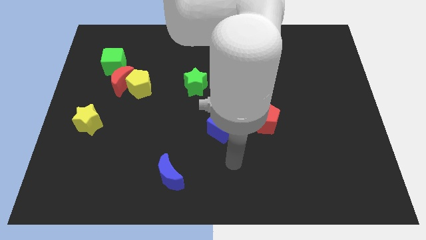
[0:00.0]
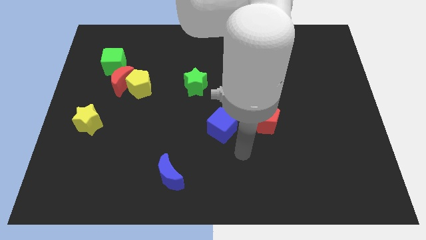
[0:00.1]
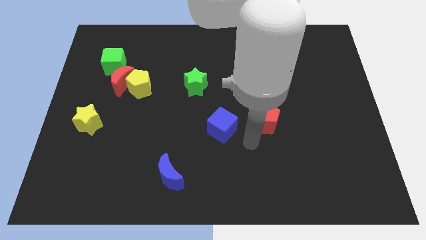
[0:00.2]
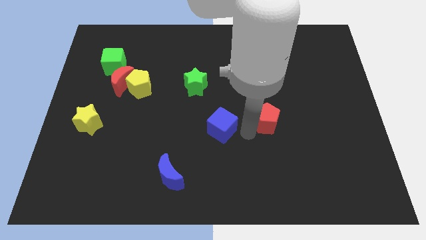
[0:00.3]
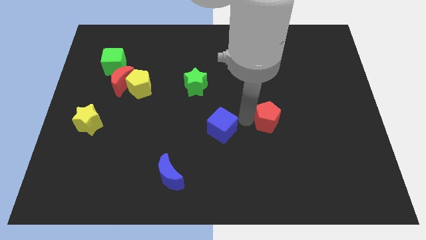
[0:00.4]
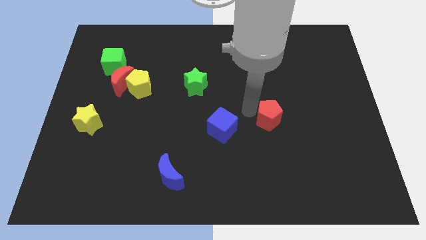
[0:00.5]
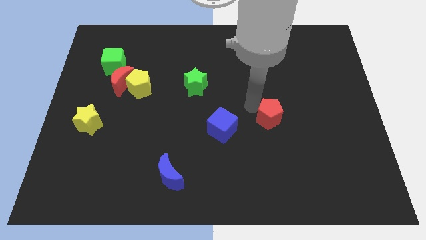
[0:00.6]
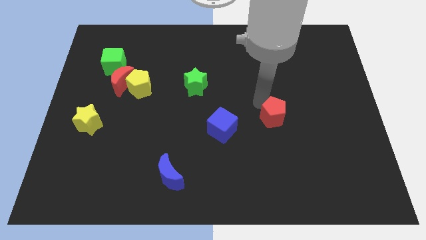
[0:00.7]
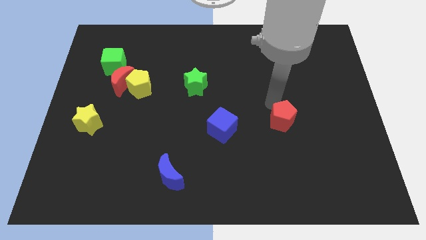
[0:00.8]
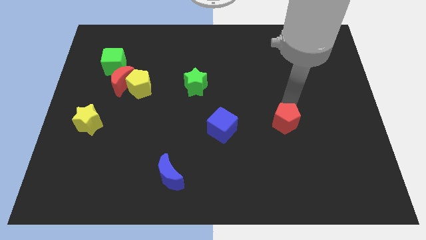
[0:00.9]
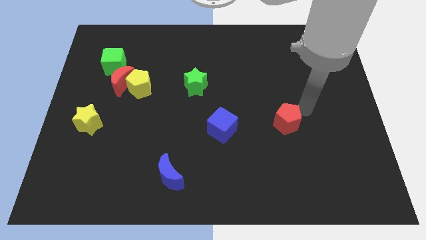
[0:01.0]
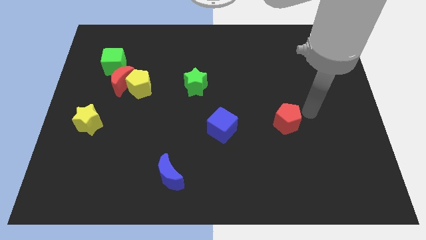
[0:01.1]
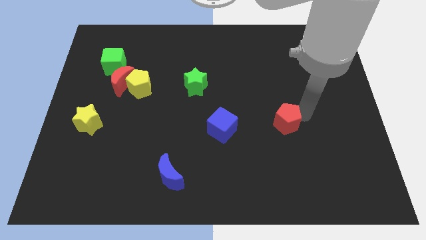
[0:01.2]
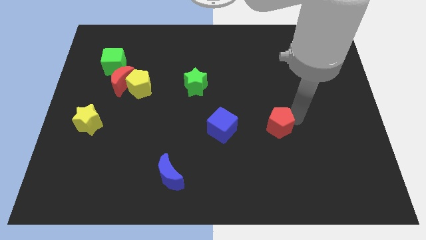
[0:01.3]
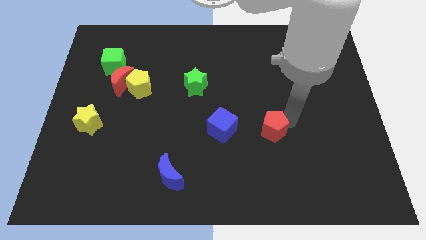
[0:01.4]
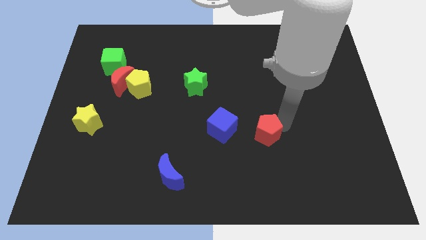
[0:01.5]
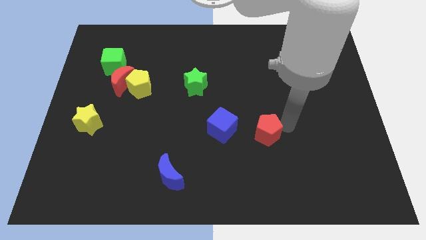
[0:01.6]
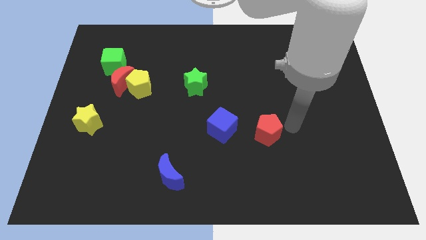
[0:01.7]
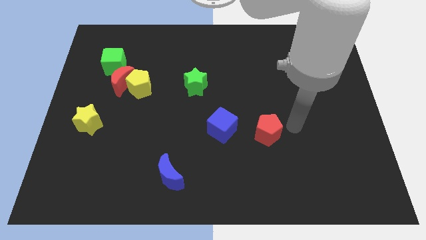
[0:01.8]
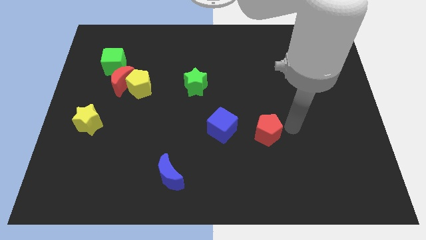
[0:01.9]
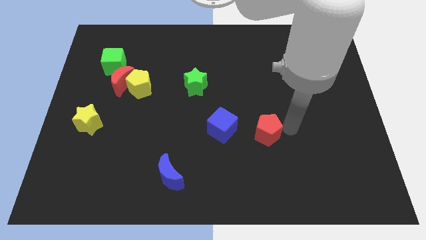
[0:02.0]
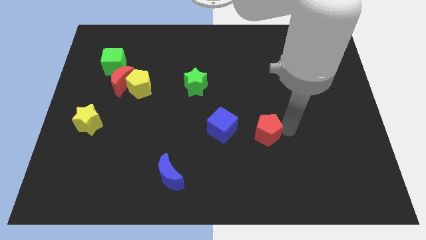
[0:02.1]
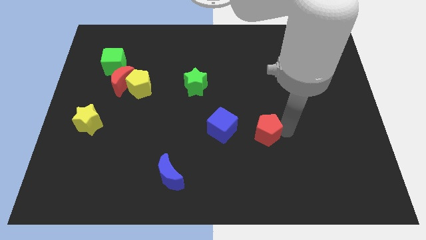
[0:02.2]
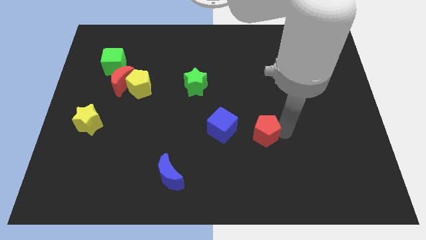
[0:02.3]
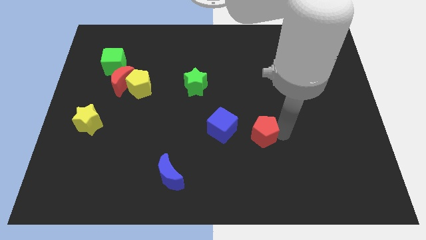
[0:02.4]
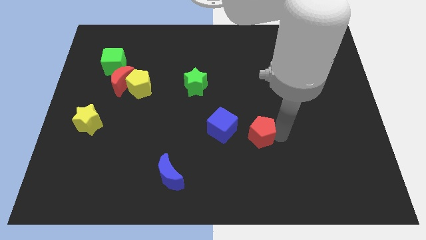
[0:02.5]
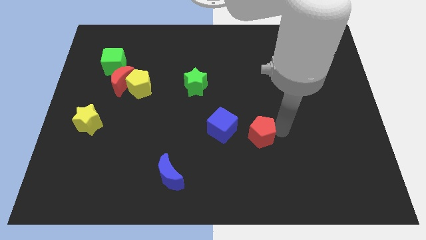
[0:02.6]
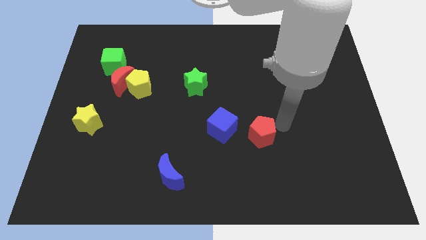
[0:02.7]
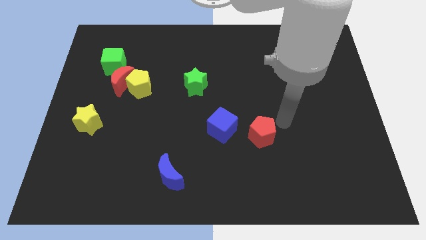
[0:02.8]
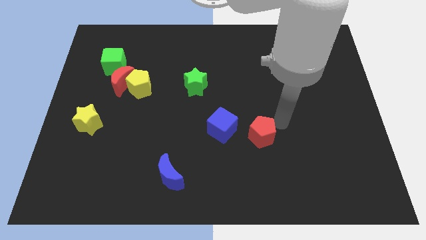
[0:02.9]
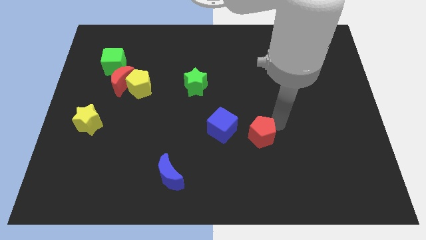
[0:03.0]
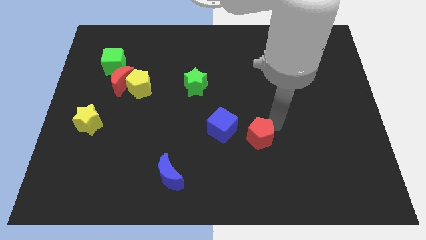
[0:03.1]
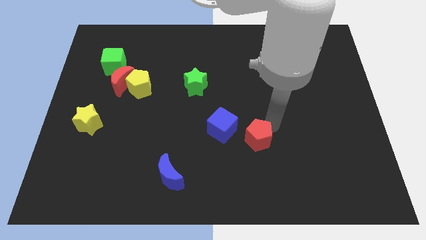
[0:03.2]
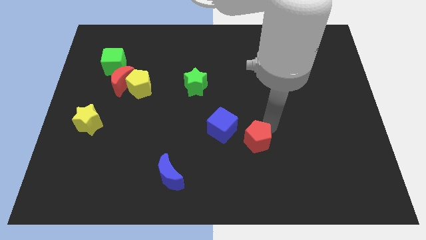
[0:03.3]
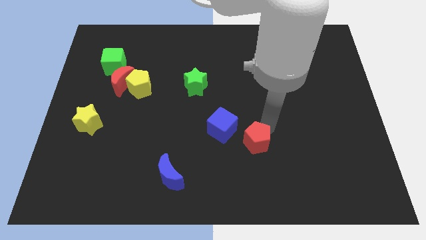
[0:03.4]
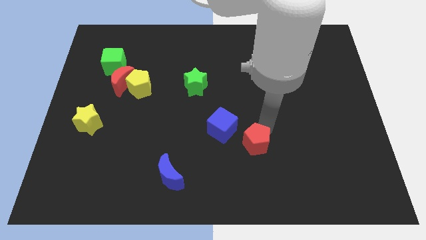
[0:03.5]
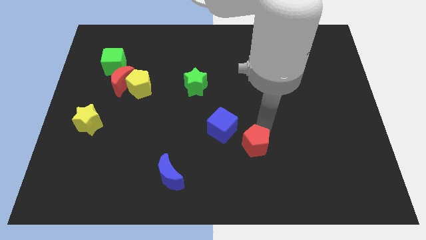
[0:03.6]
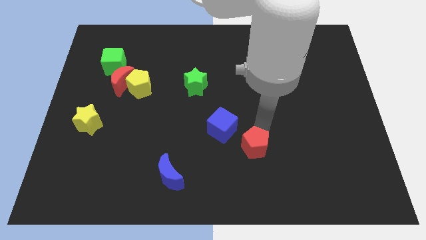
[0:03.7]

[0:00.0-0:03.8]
slide the red pentagon a bit downwards and to the left diagonally

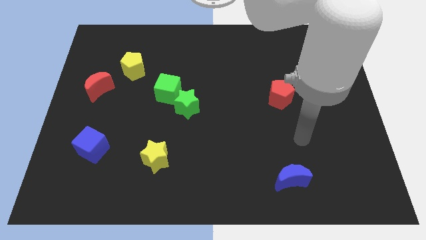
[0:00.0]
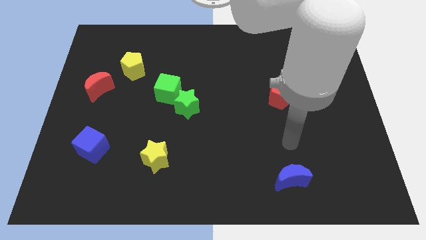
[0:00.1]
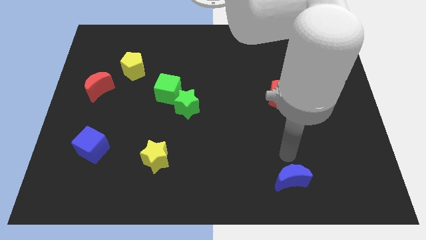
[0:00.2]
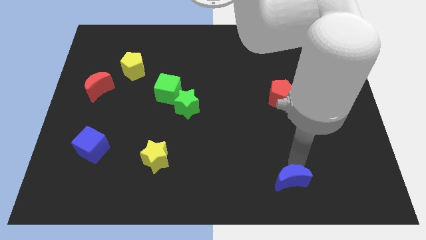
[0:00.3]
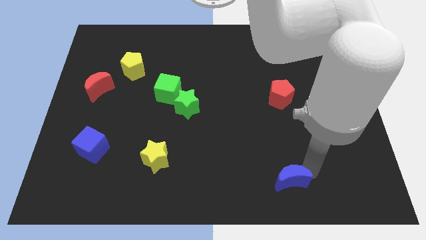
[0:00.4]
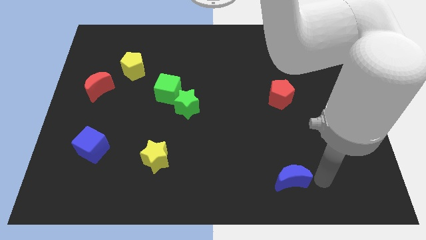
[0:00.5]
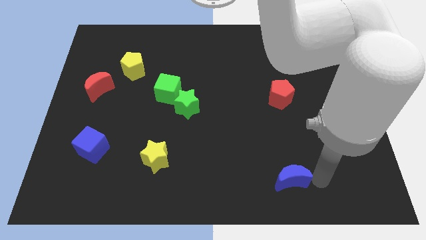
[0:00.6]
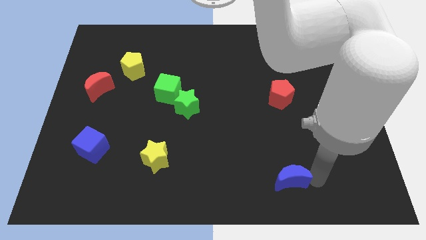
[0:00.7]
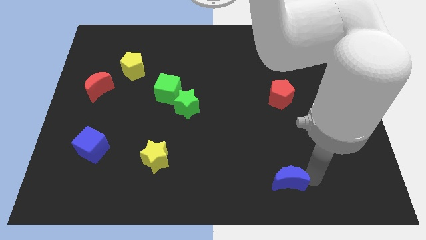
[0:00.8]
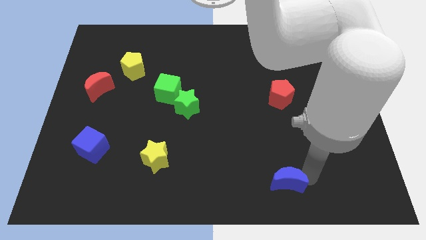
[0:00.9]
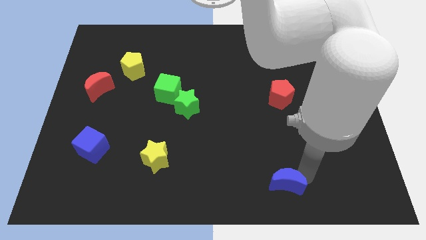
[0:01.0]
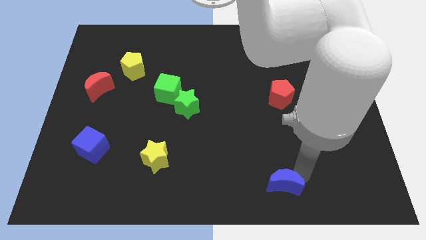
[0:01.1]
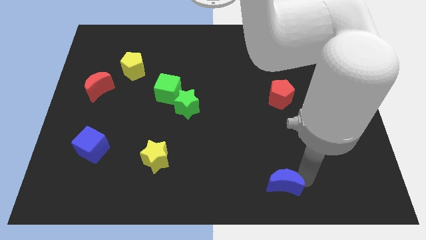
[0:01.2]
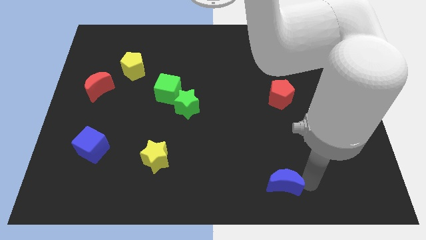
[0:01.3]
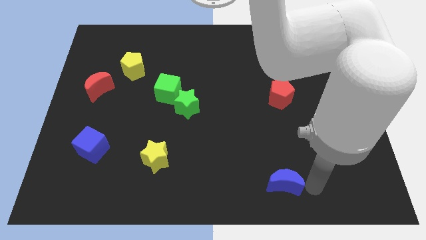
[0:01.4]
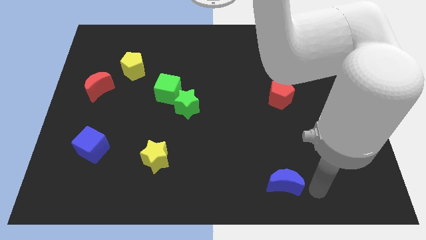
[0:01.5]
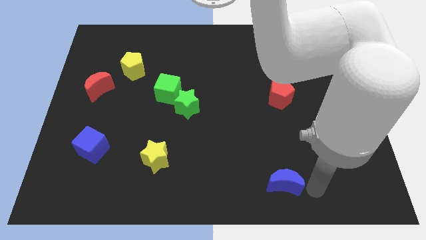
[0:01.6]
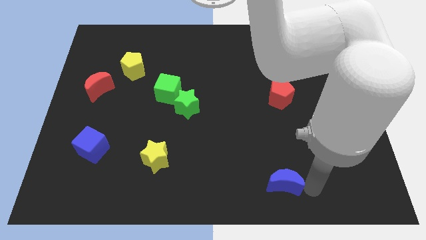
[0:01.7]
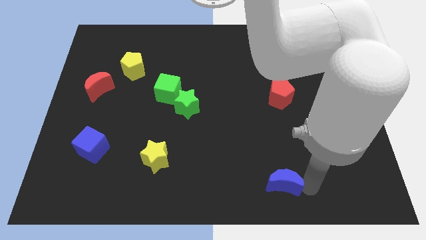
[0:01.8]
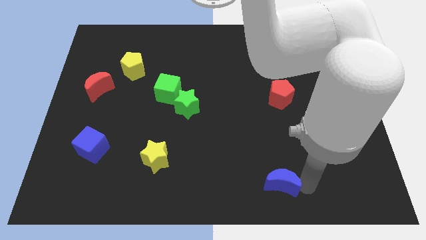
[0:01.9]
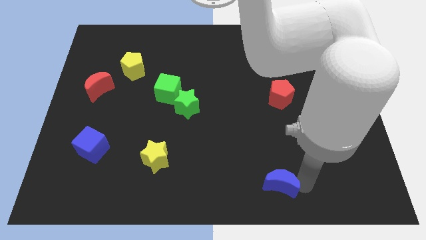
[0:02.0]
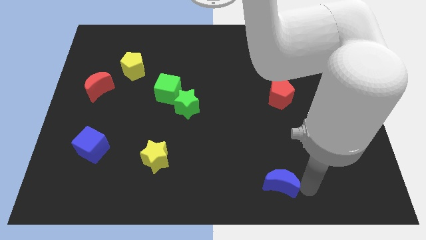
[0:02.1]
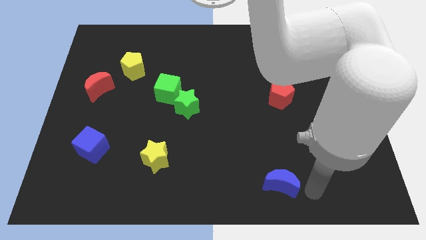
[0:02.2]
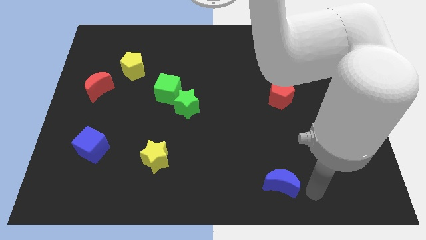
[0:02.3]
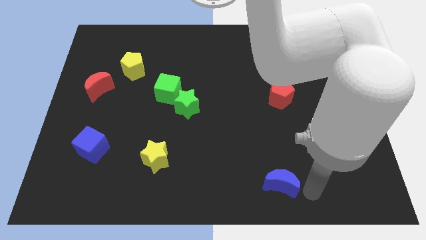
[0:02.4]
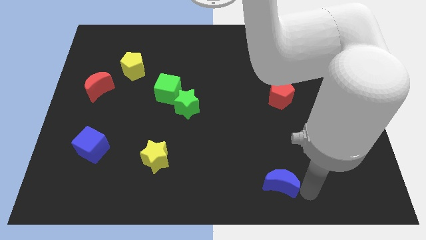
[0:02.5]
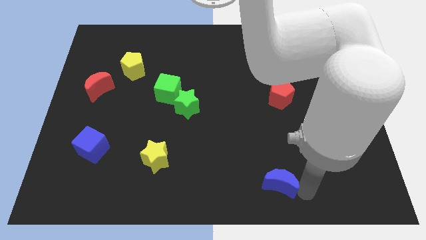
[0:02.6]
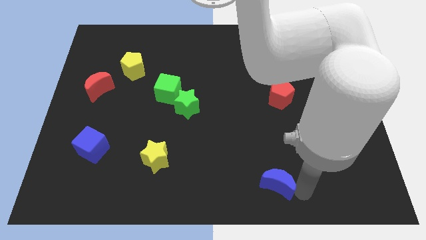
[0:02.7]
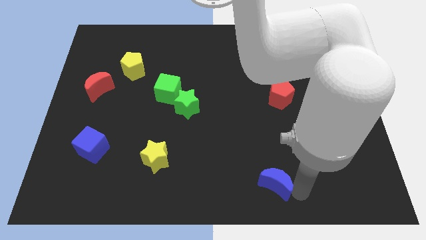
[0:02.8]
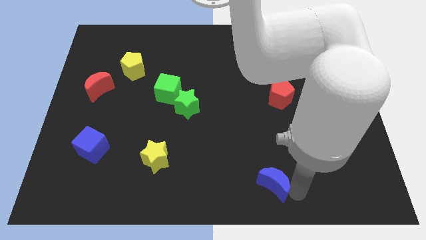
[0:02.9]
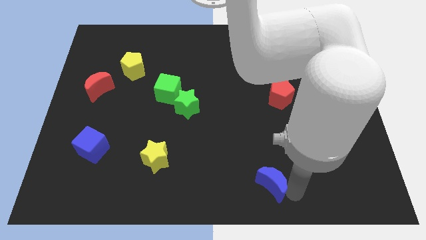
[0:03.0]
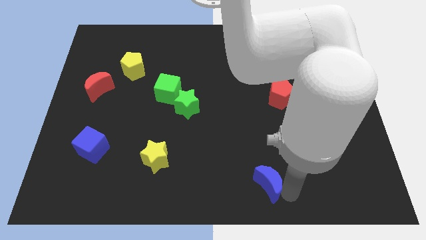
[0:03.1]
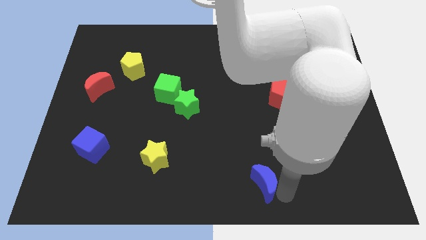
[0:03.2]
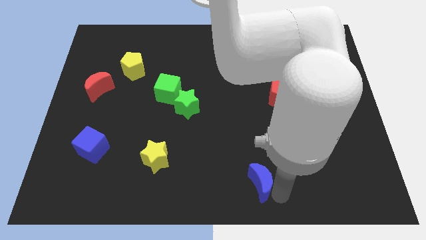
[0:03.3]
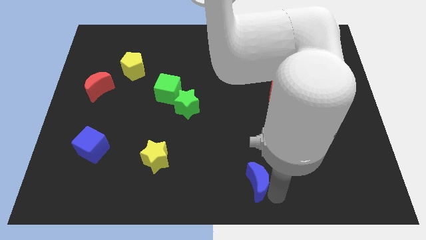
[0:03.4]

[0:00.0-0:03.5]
move the blue moon a bit left

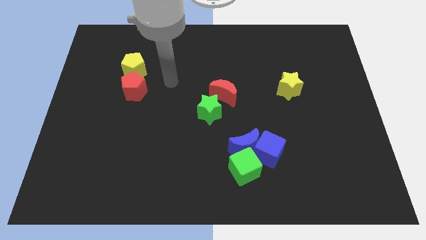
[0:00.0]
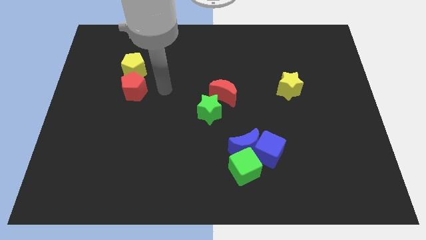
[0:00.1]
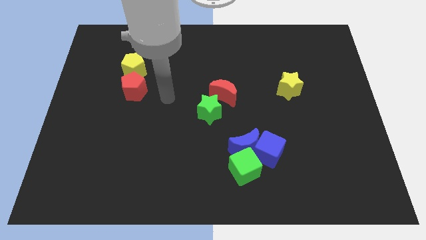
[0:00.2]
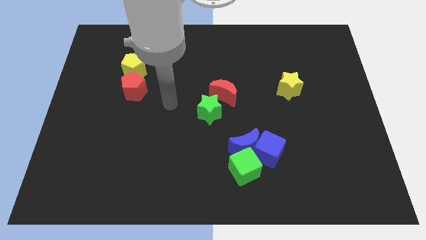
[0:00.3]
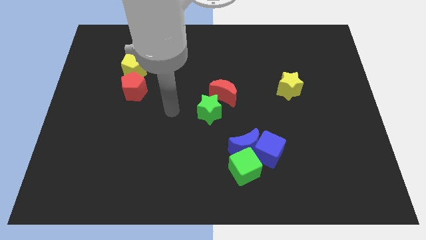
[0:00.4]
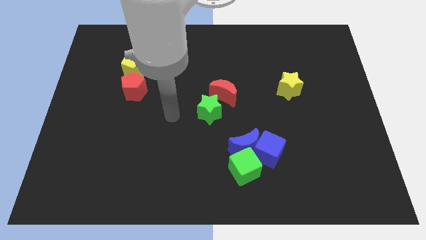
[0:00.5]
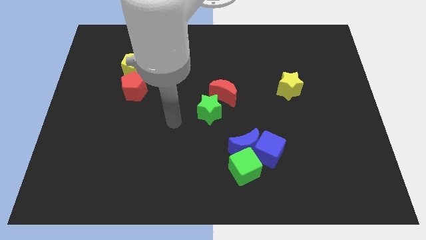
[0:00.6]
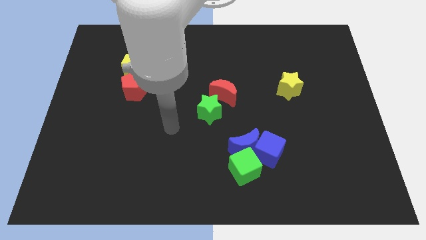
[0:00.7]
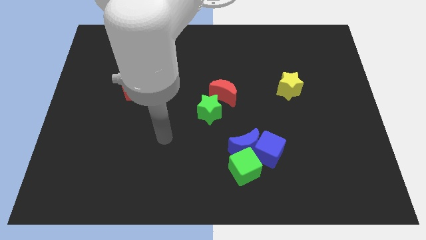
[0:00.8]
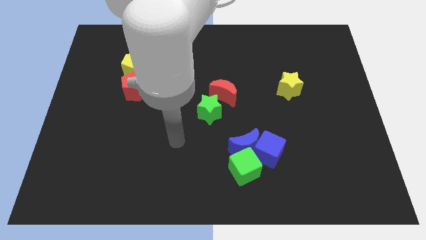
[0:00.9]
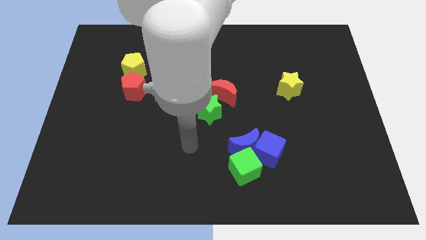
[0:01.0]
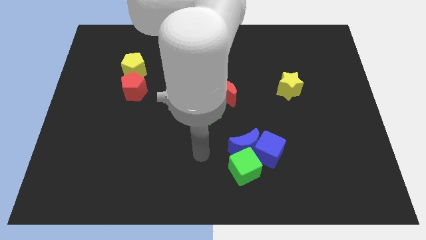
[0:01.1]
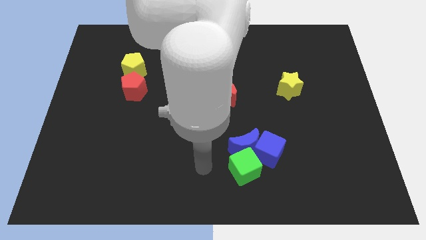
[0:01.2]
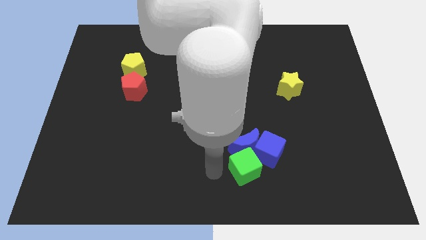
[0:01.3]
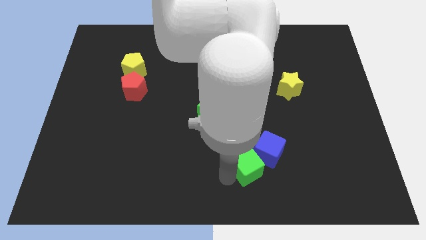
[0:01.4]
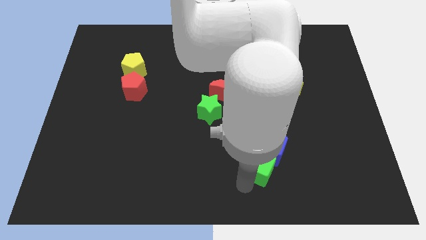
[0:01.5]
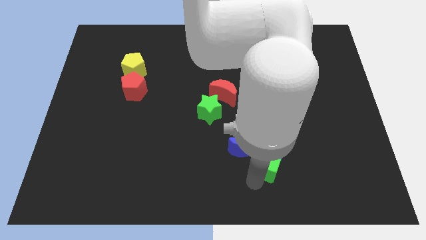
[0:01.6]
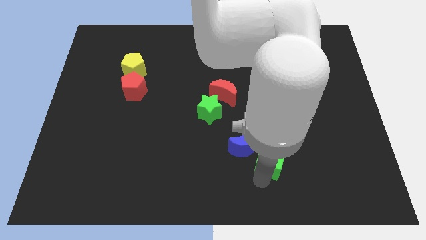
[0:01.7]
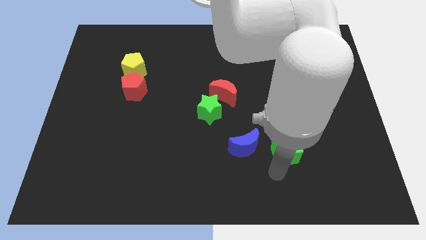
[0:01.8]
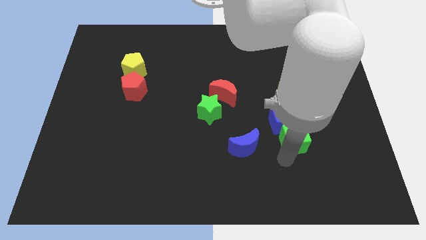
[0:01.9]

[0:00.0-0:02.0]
slightly slide the blue cube upwards
